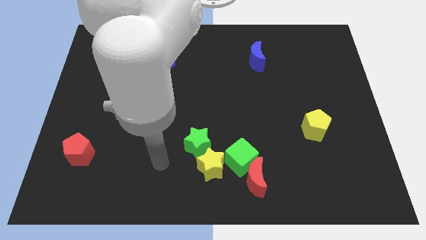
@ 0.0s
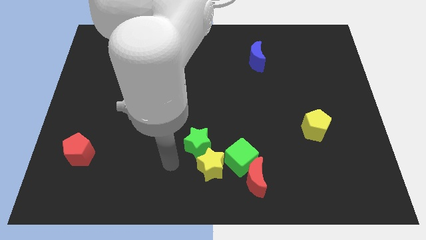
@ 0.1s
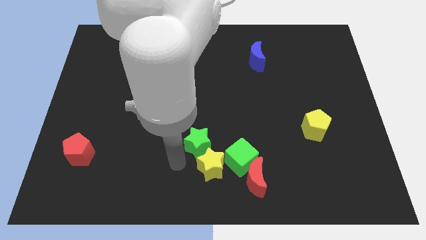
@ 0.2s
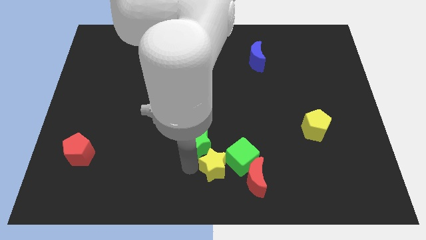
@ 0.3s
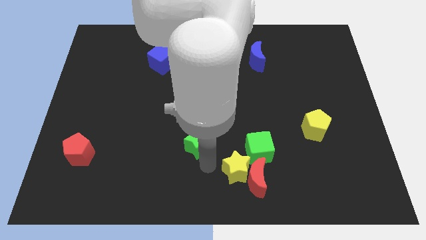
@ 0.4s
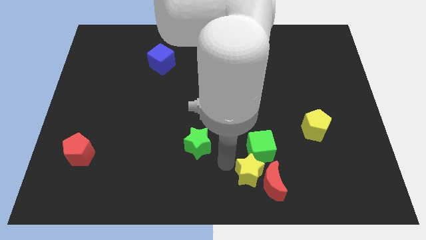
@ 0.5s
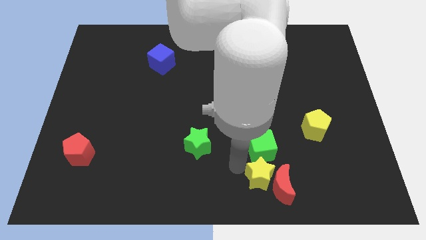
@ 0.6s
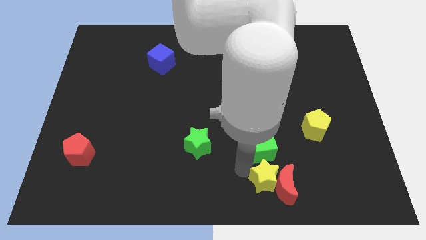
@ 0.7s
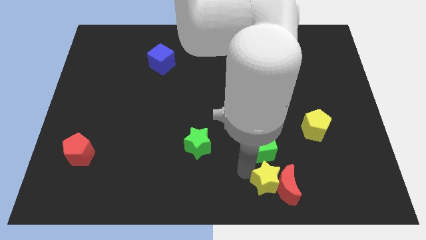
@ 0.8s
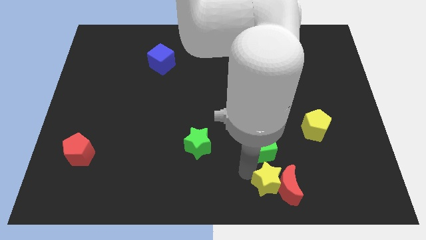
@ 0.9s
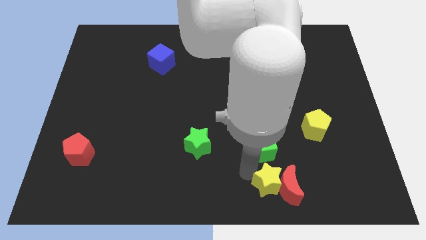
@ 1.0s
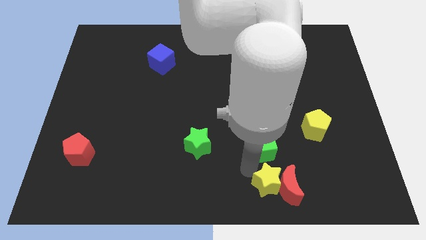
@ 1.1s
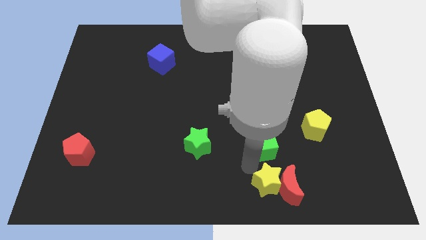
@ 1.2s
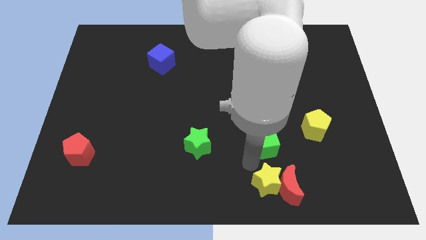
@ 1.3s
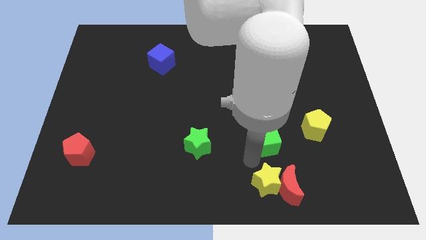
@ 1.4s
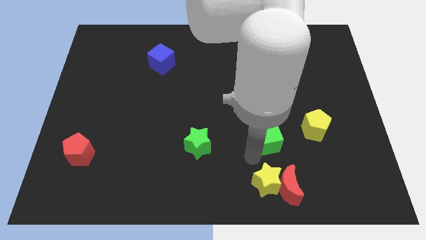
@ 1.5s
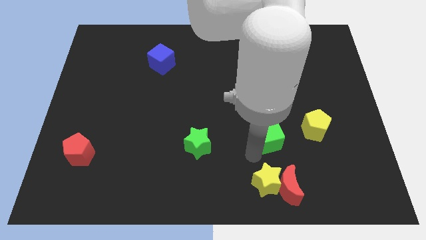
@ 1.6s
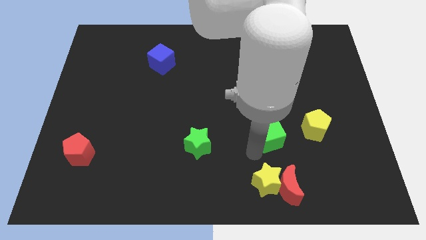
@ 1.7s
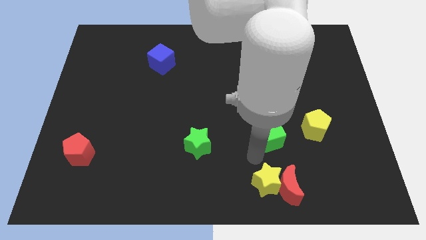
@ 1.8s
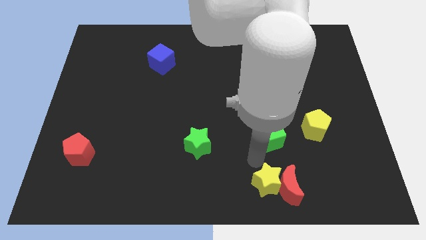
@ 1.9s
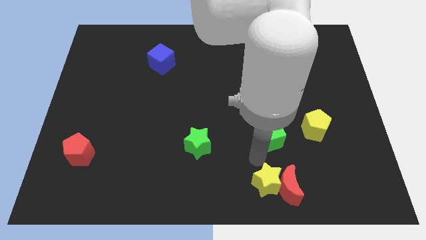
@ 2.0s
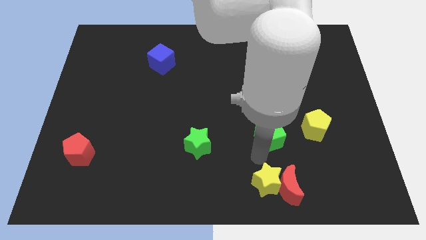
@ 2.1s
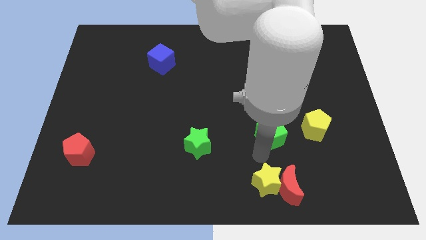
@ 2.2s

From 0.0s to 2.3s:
pull the green cube apart from the red moon, yellow star, and green star

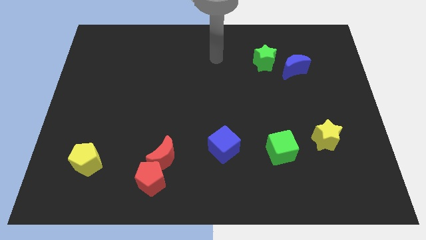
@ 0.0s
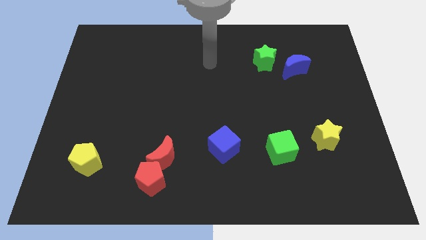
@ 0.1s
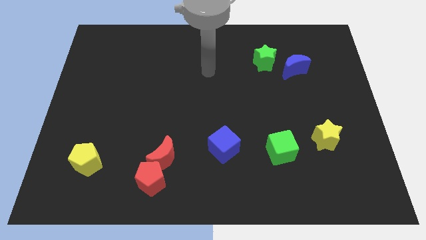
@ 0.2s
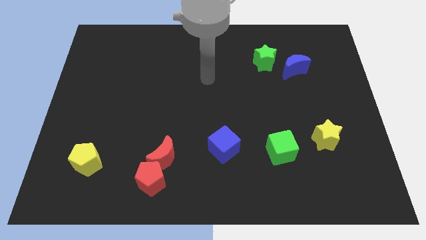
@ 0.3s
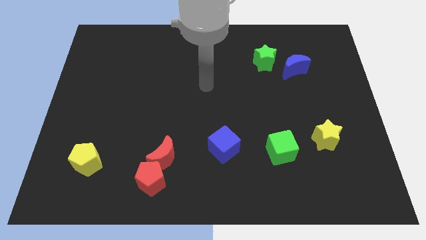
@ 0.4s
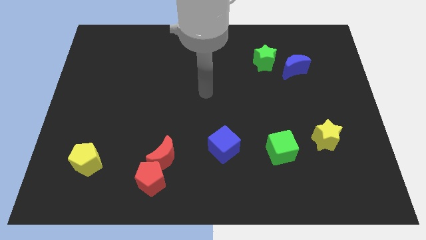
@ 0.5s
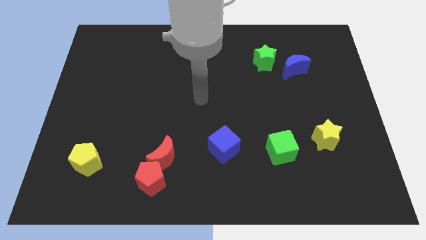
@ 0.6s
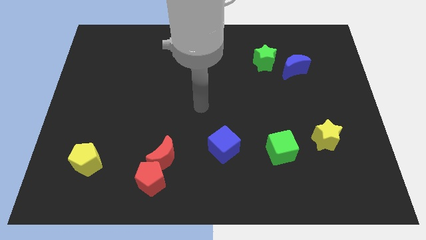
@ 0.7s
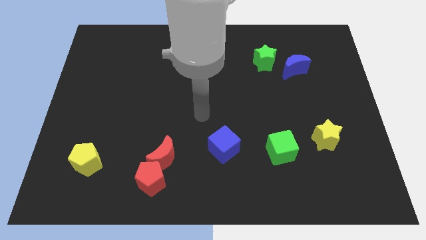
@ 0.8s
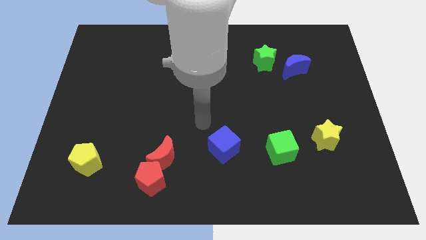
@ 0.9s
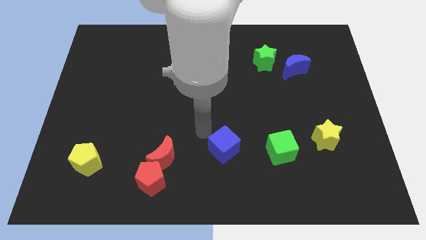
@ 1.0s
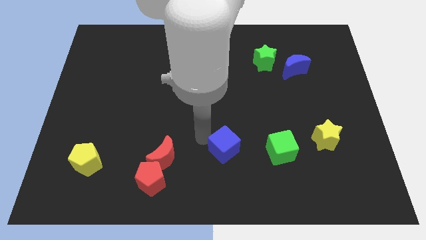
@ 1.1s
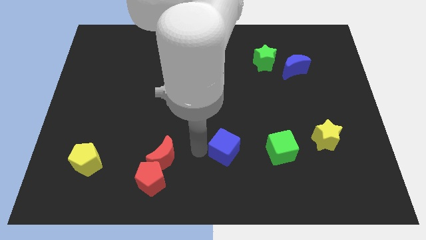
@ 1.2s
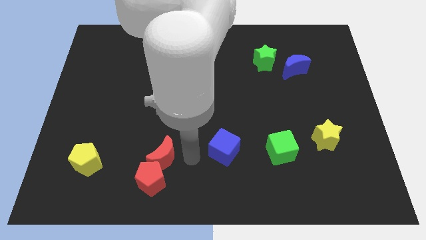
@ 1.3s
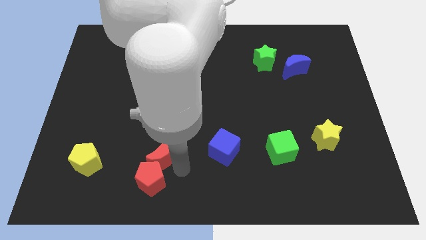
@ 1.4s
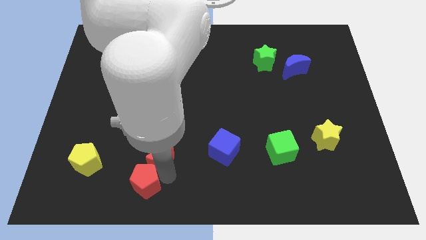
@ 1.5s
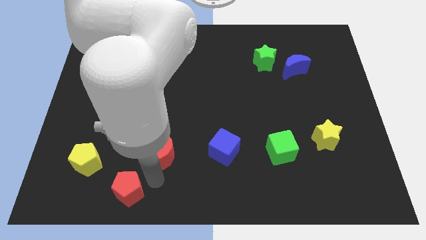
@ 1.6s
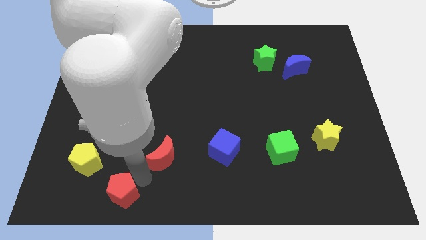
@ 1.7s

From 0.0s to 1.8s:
separate the red moon from the red pentagon

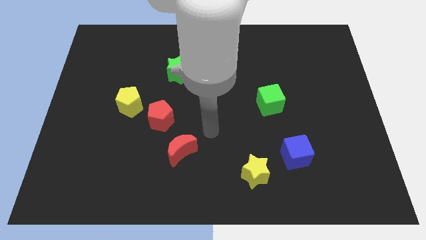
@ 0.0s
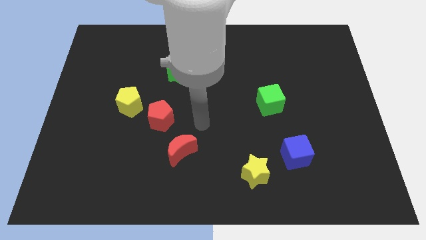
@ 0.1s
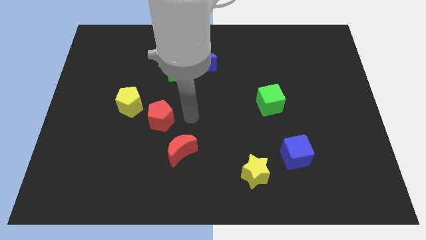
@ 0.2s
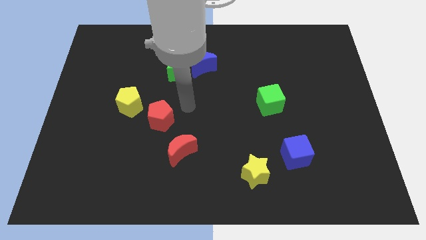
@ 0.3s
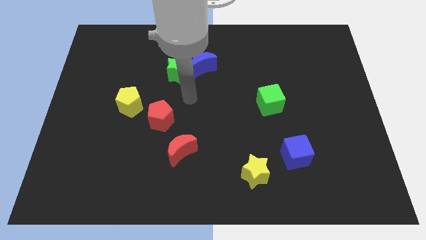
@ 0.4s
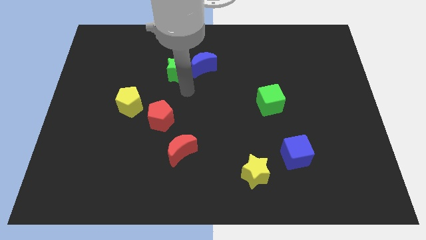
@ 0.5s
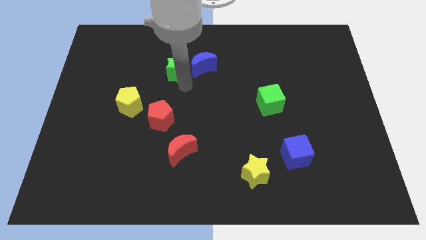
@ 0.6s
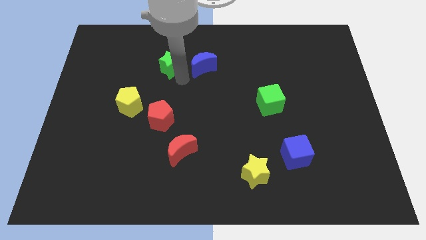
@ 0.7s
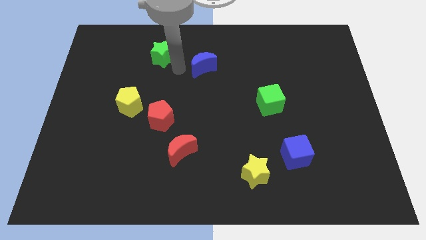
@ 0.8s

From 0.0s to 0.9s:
pull the blue moon apart from the green star

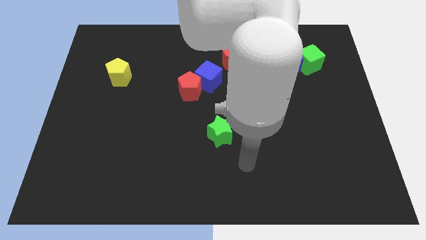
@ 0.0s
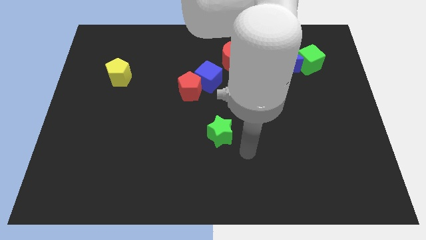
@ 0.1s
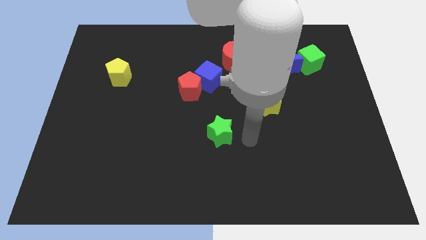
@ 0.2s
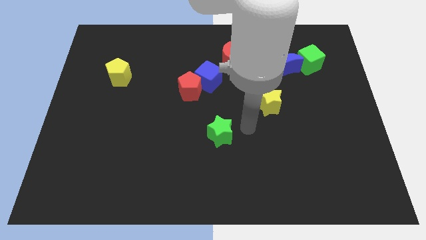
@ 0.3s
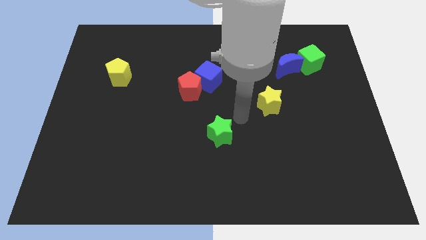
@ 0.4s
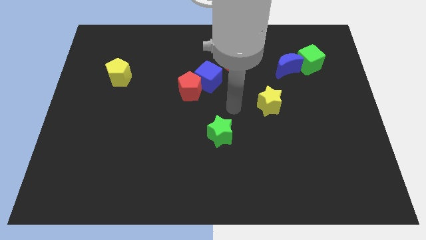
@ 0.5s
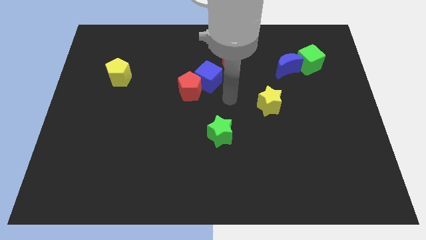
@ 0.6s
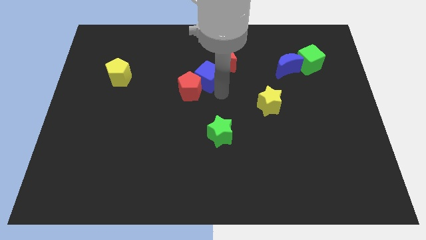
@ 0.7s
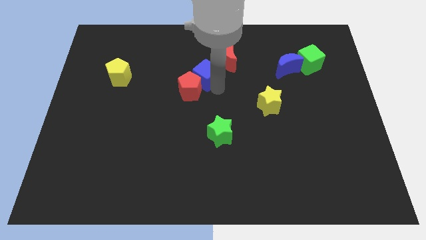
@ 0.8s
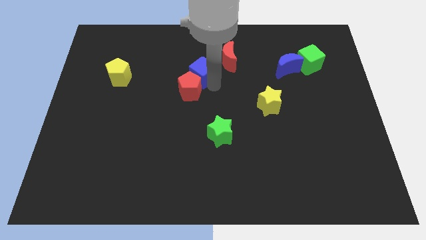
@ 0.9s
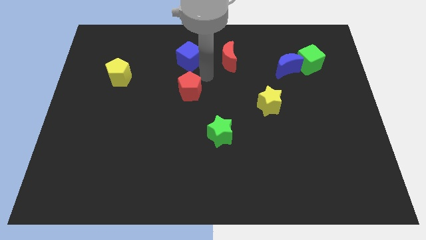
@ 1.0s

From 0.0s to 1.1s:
pull the red pentagon apart from the blue cube

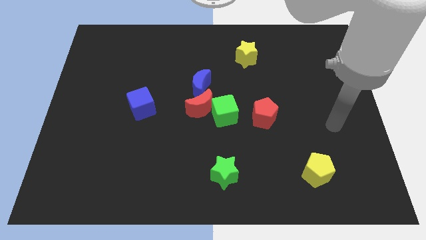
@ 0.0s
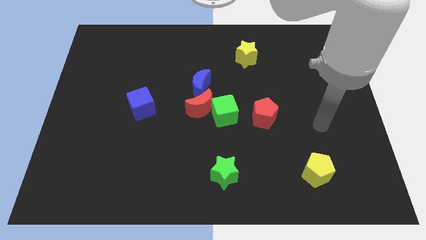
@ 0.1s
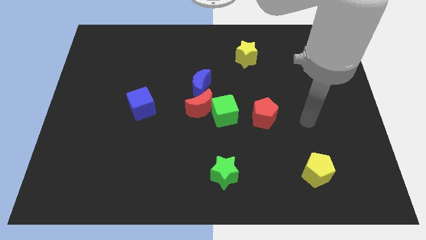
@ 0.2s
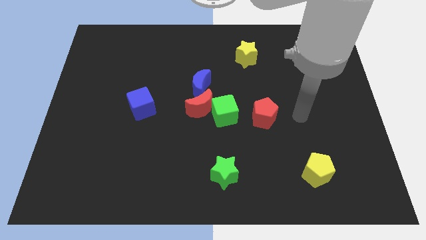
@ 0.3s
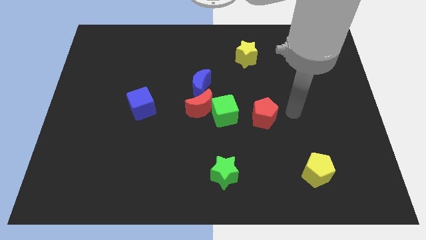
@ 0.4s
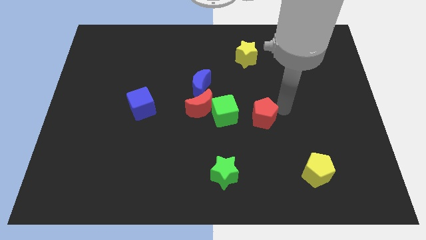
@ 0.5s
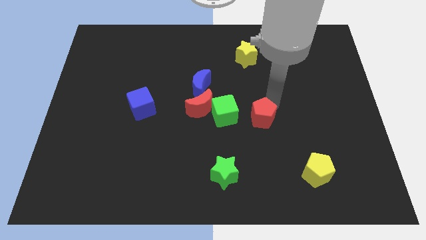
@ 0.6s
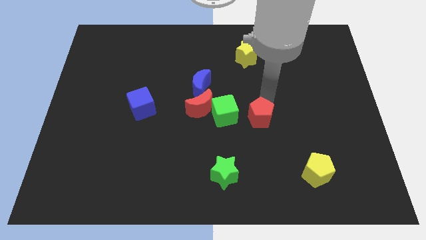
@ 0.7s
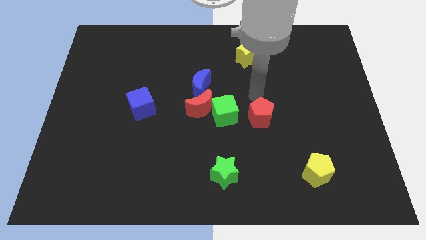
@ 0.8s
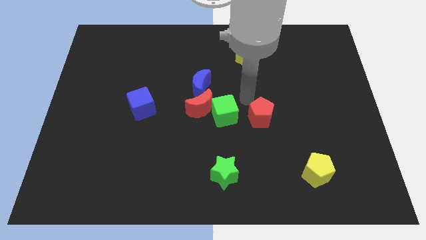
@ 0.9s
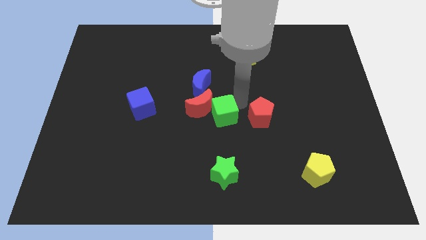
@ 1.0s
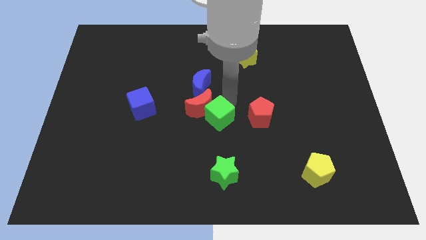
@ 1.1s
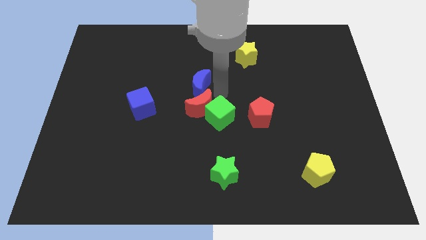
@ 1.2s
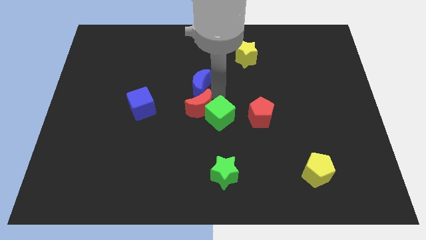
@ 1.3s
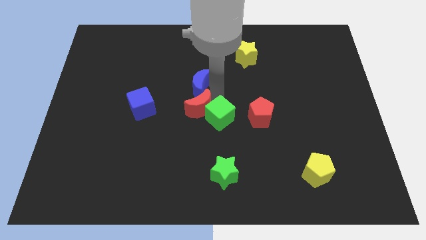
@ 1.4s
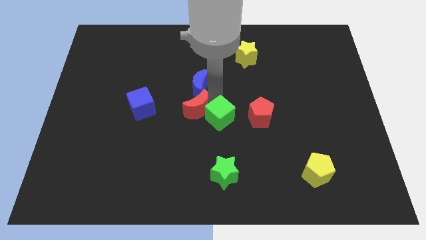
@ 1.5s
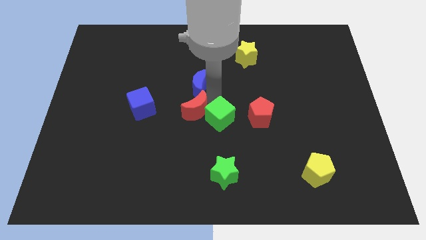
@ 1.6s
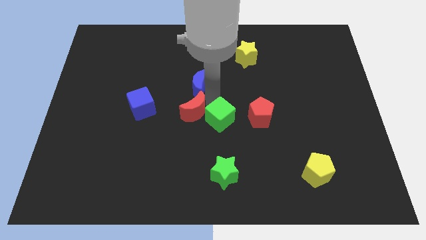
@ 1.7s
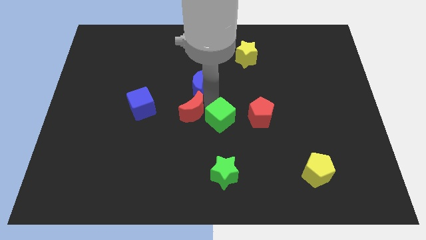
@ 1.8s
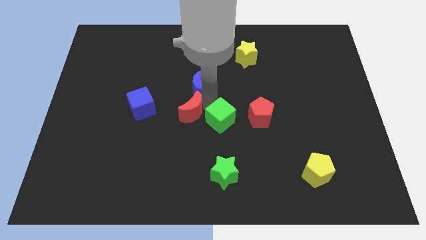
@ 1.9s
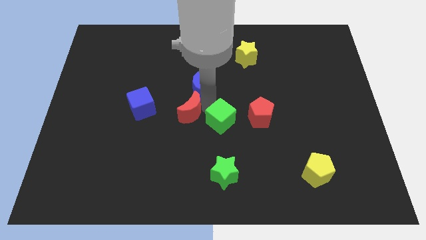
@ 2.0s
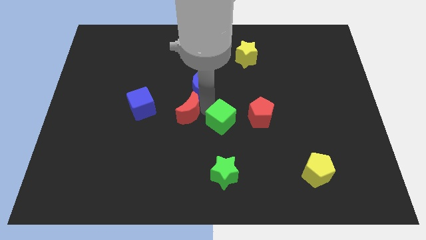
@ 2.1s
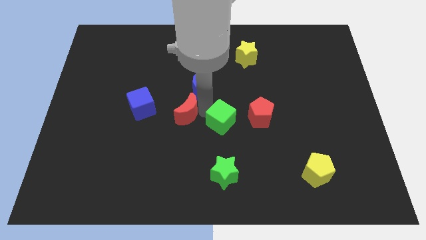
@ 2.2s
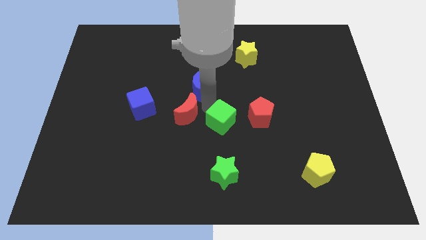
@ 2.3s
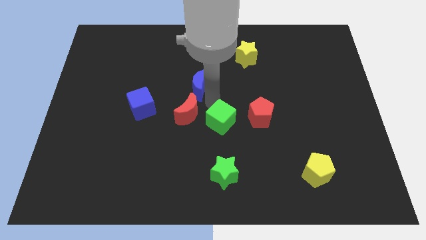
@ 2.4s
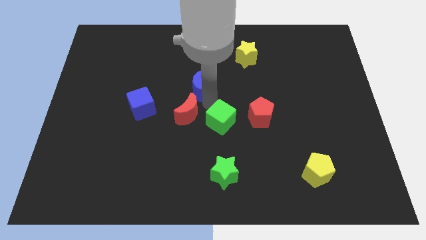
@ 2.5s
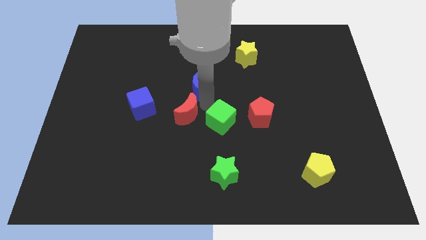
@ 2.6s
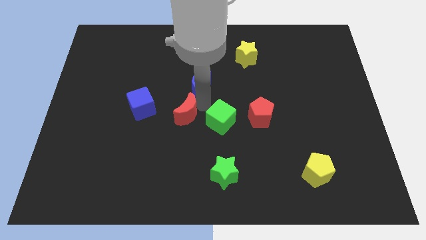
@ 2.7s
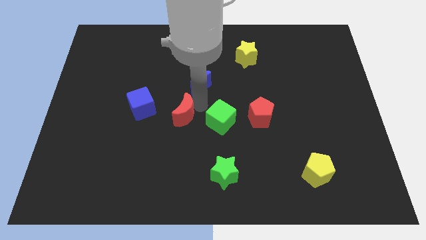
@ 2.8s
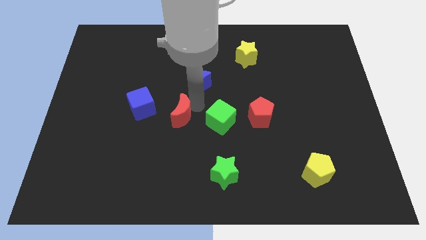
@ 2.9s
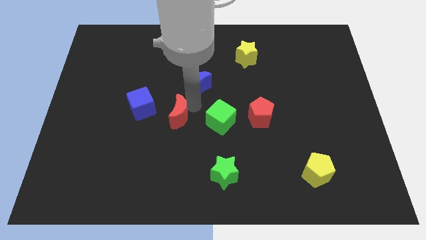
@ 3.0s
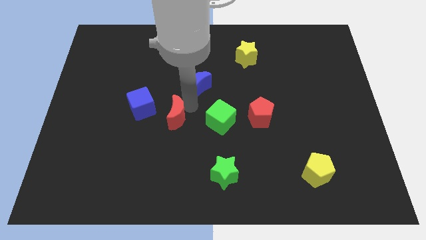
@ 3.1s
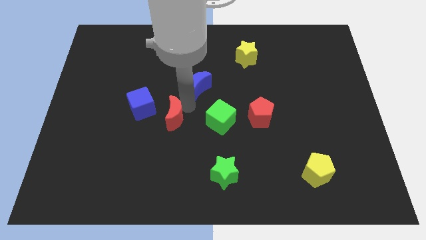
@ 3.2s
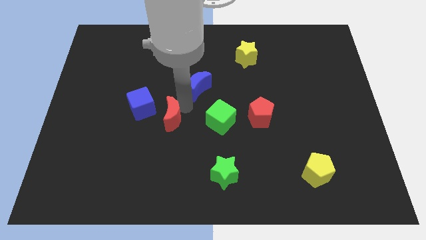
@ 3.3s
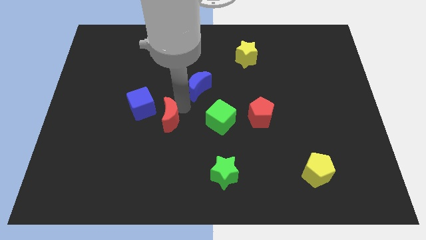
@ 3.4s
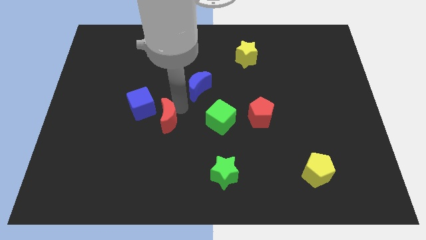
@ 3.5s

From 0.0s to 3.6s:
move the red moon away from the green cube and blue moon
